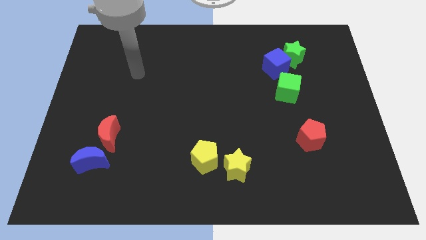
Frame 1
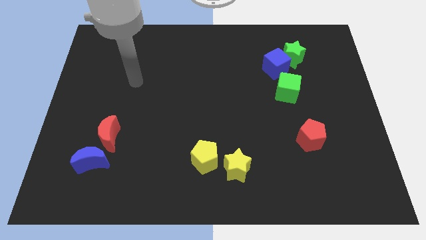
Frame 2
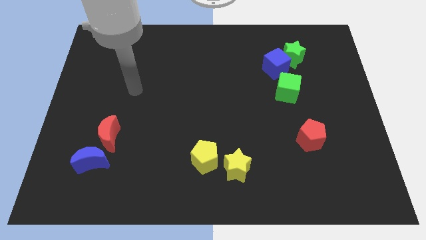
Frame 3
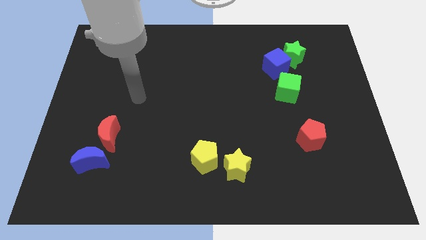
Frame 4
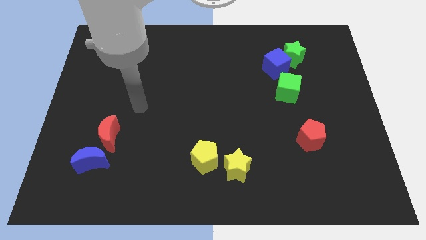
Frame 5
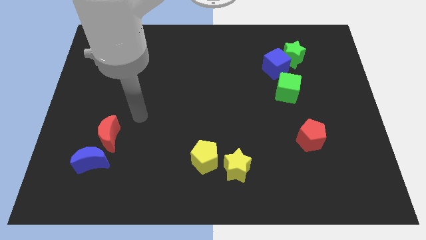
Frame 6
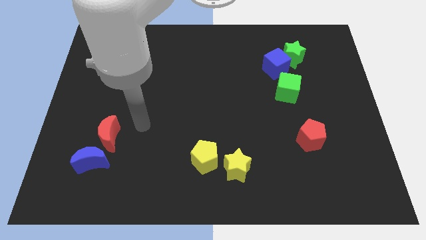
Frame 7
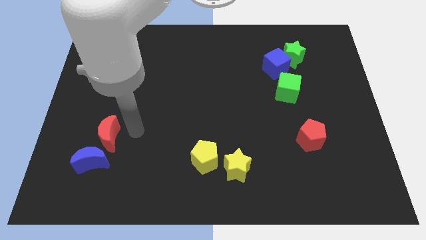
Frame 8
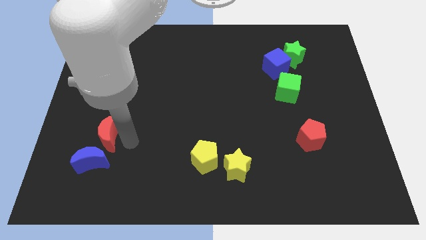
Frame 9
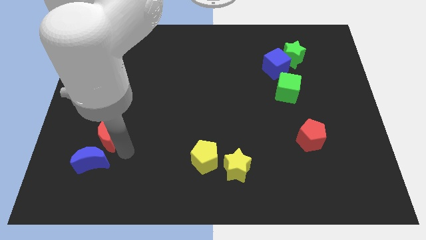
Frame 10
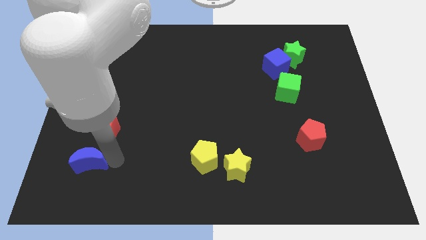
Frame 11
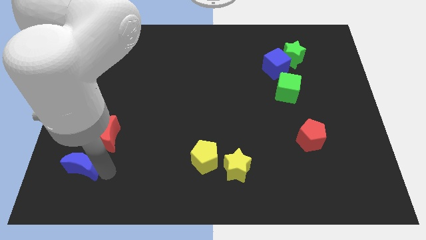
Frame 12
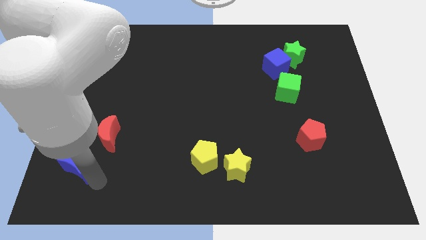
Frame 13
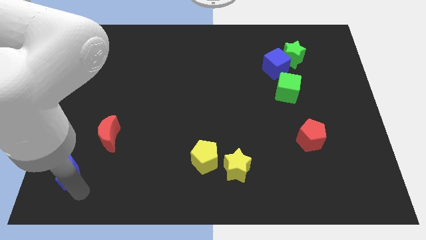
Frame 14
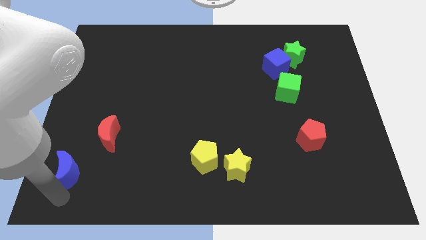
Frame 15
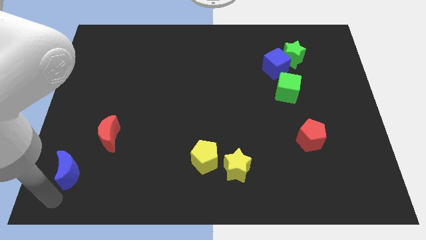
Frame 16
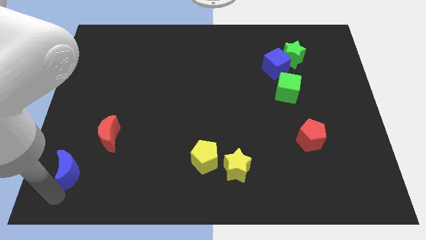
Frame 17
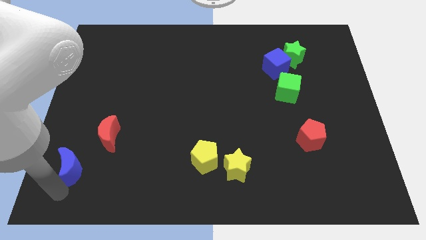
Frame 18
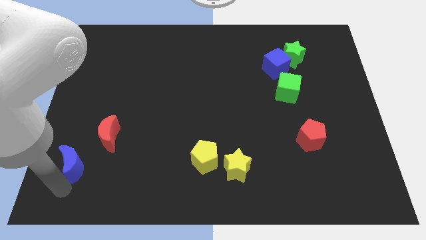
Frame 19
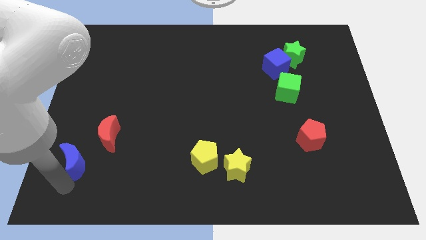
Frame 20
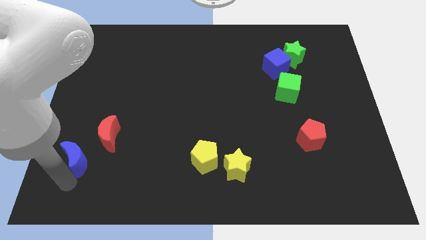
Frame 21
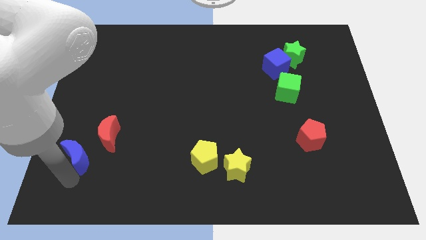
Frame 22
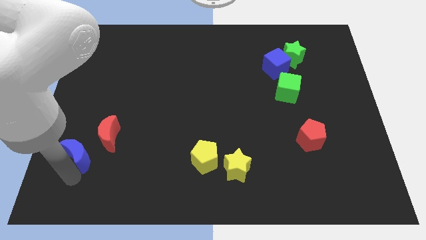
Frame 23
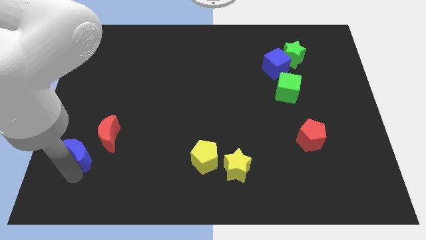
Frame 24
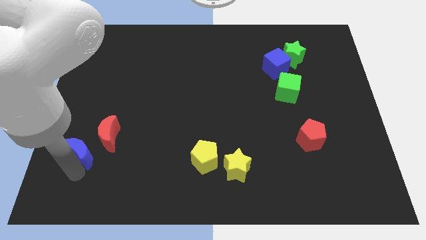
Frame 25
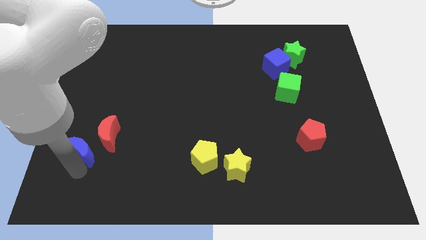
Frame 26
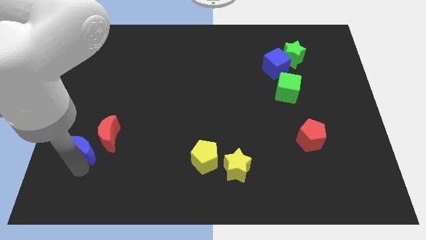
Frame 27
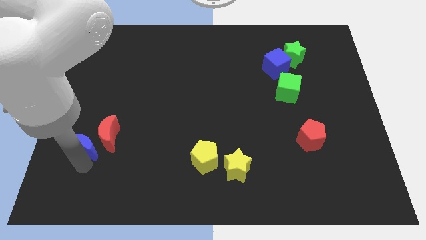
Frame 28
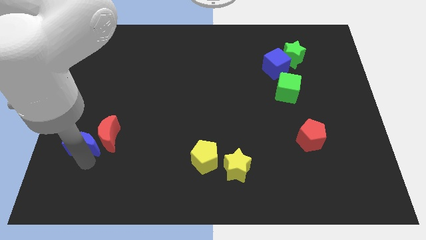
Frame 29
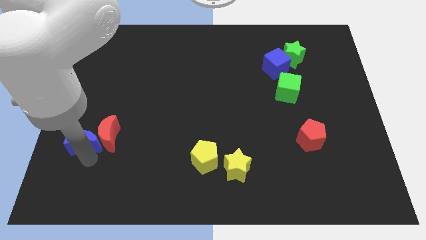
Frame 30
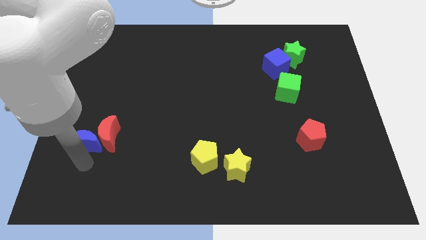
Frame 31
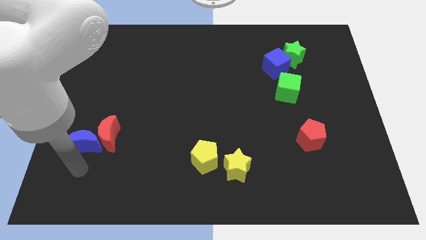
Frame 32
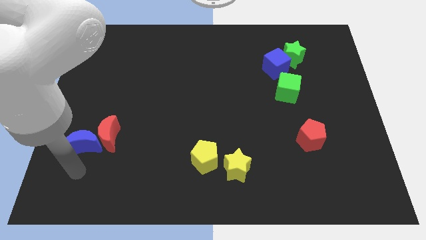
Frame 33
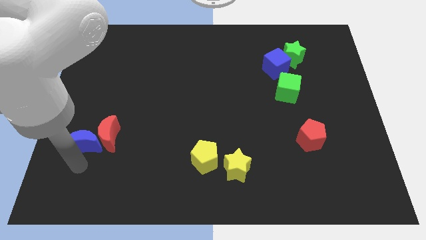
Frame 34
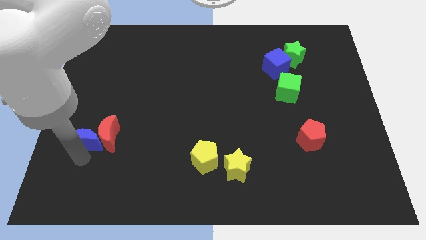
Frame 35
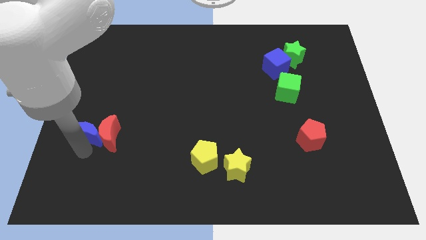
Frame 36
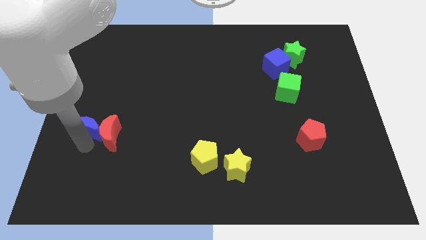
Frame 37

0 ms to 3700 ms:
slightly slide the blue moon up

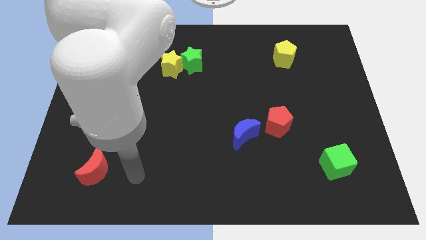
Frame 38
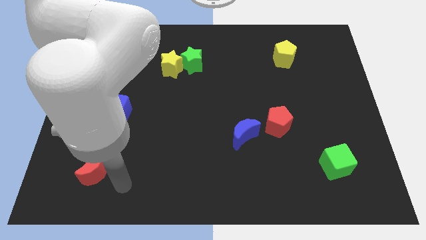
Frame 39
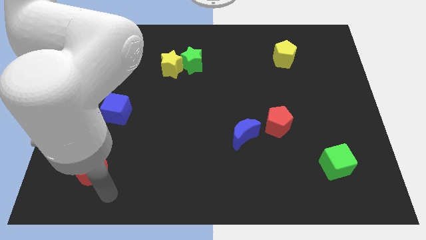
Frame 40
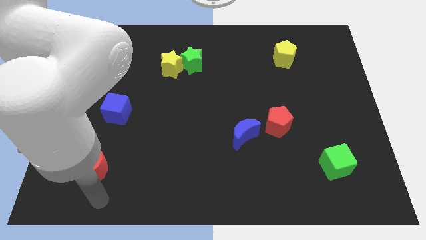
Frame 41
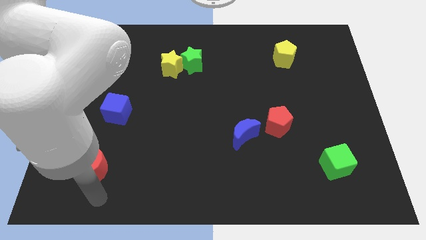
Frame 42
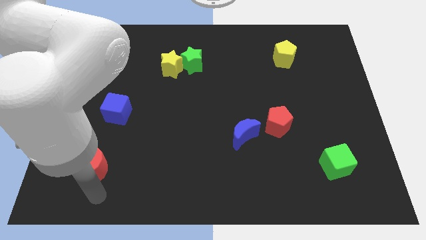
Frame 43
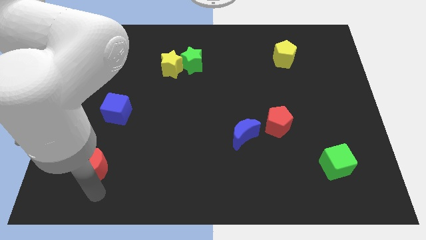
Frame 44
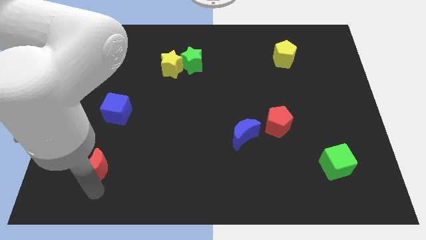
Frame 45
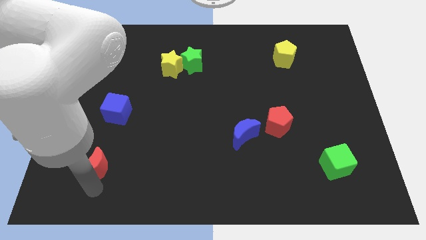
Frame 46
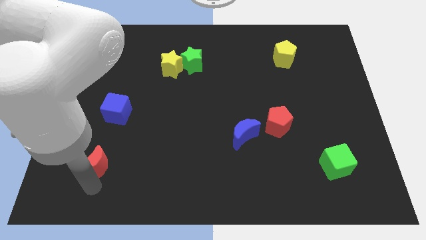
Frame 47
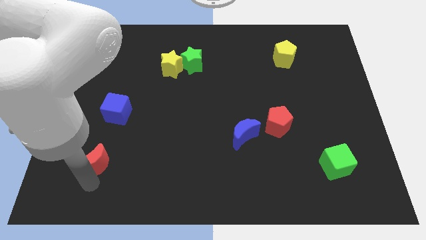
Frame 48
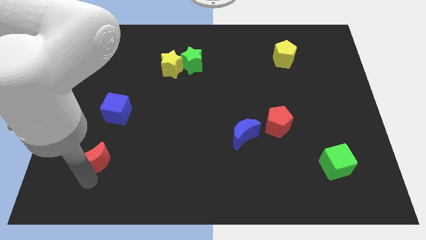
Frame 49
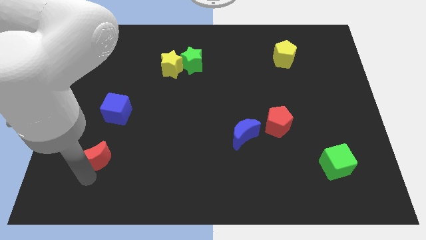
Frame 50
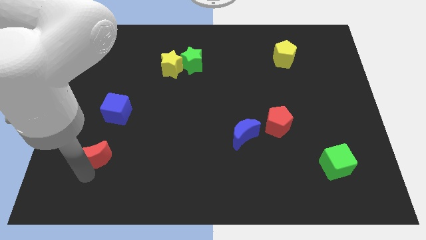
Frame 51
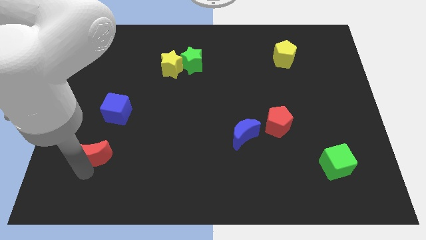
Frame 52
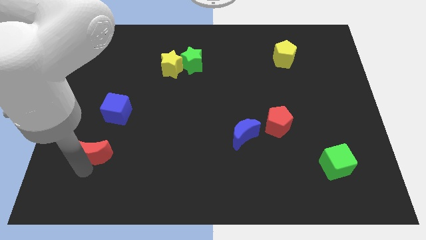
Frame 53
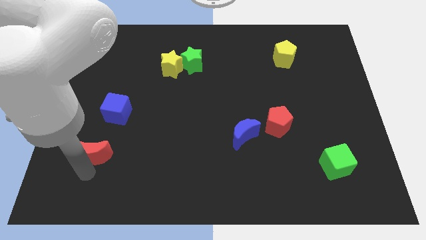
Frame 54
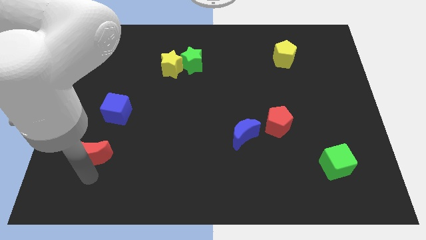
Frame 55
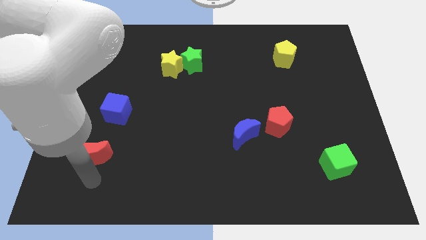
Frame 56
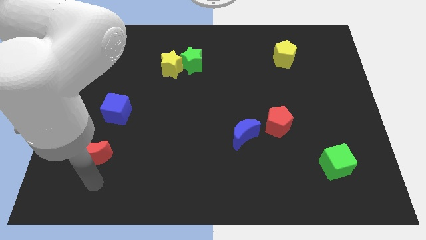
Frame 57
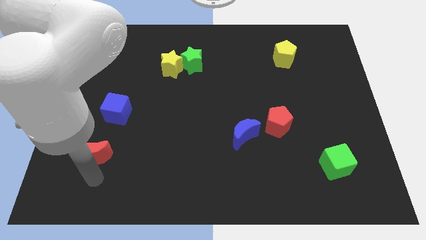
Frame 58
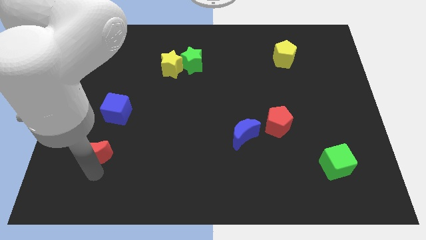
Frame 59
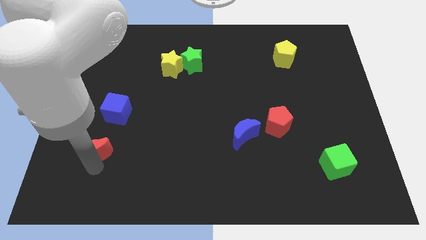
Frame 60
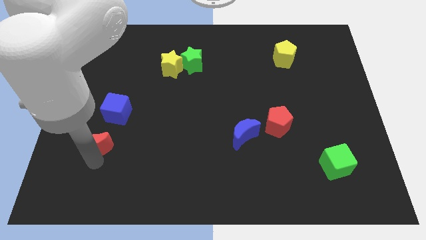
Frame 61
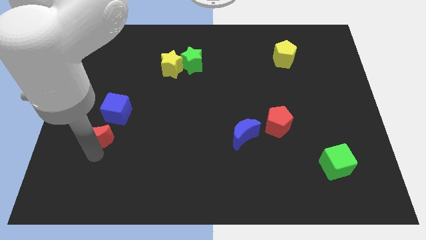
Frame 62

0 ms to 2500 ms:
slightly slide the red moon upwards

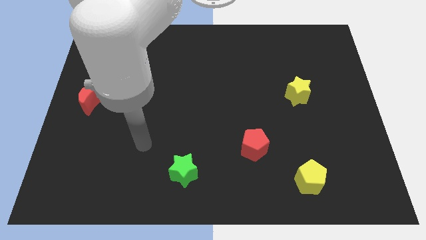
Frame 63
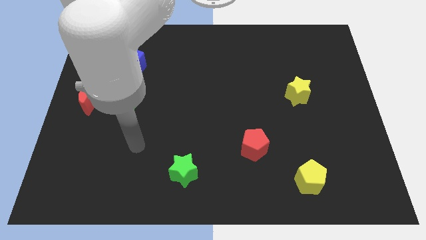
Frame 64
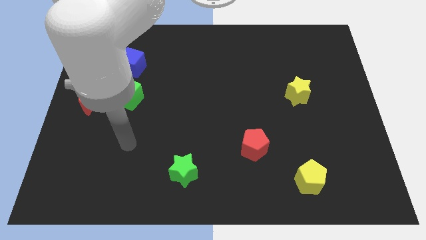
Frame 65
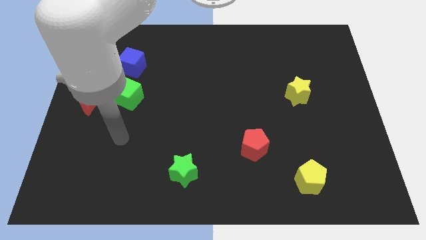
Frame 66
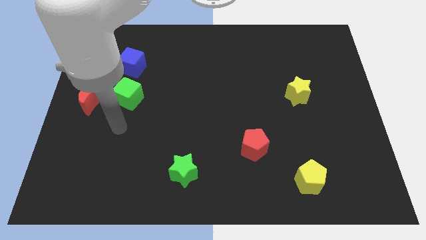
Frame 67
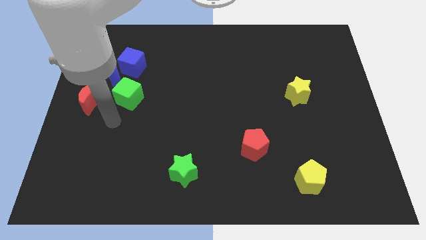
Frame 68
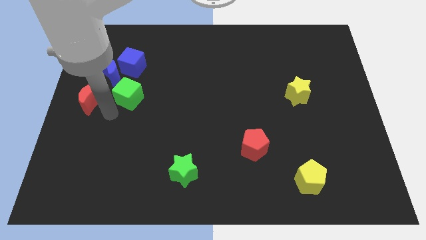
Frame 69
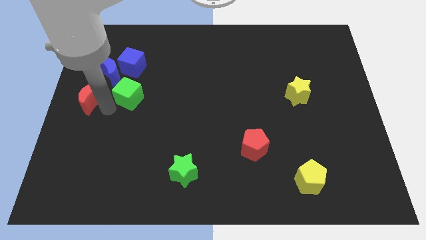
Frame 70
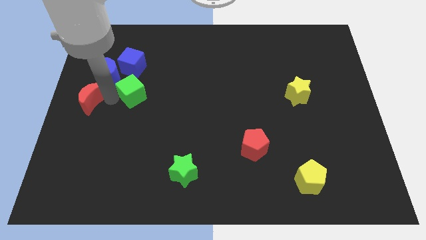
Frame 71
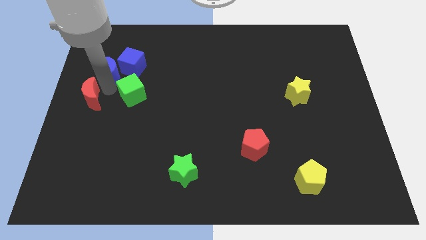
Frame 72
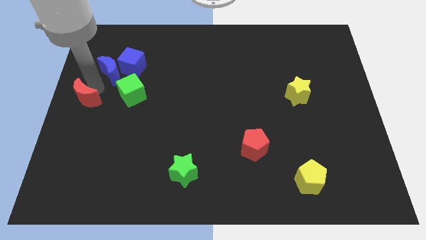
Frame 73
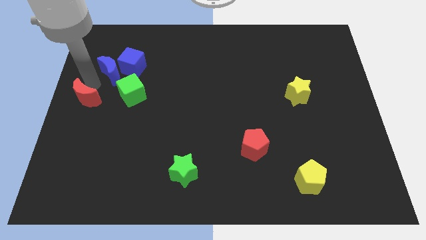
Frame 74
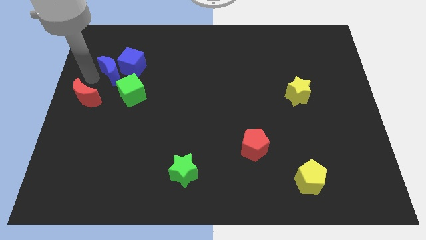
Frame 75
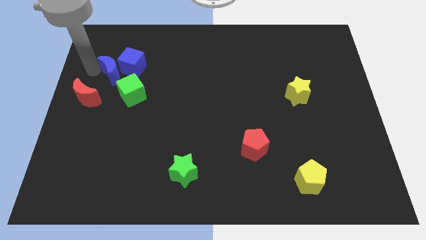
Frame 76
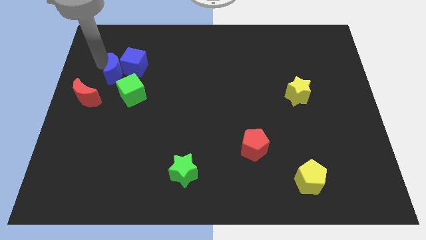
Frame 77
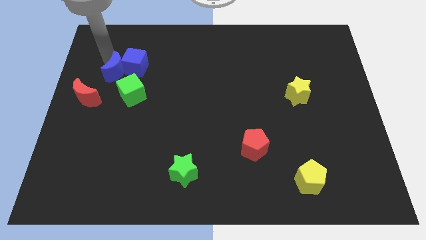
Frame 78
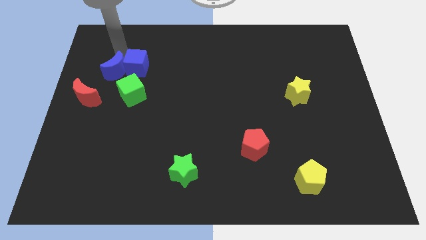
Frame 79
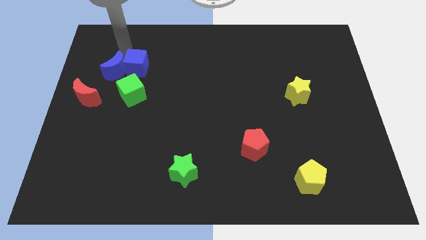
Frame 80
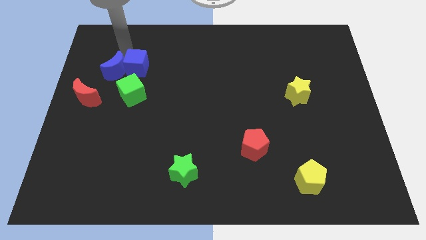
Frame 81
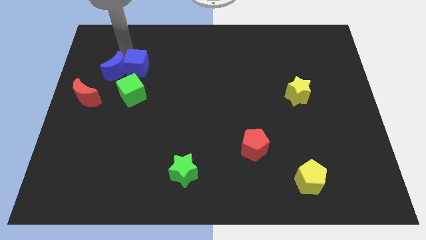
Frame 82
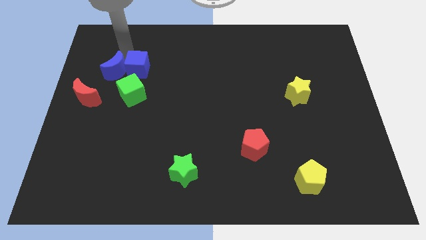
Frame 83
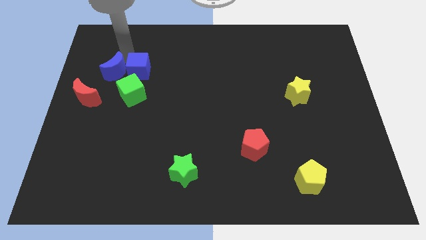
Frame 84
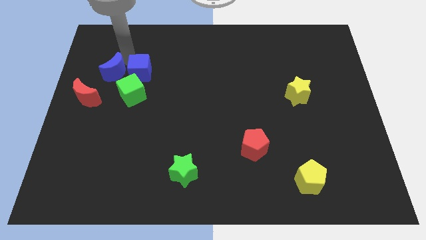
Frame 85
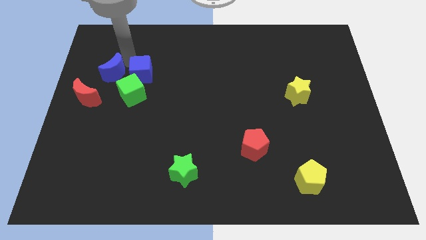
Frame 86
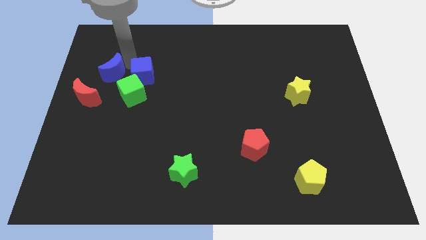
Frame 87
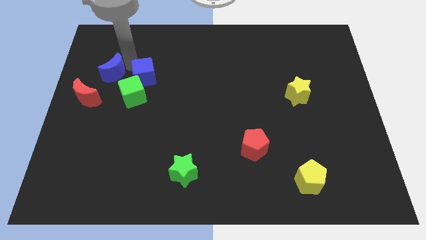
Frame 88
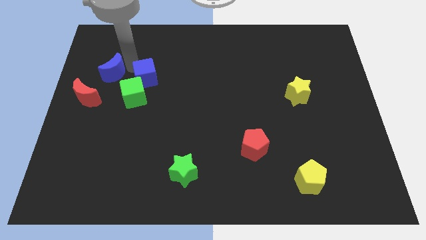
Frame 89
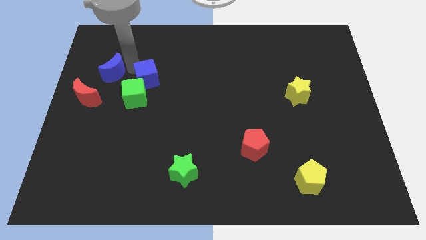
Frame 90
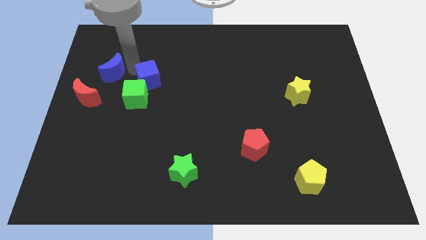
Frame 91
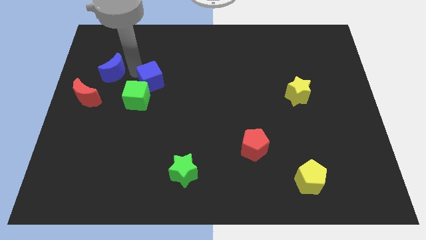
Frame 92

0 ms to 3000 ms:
slide the blue cube downwards and then to the right somewhat
